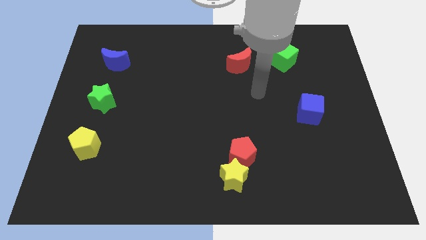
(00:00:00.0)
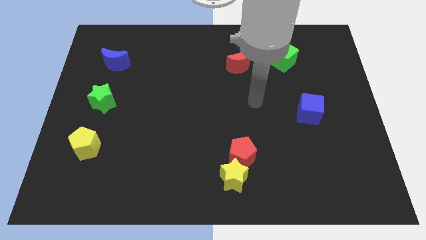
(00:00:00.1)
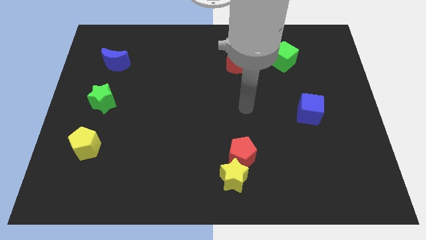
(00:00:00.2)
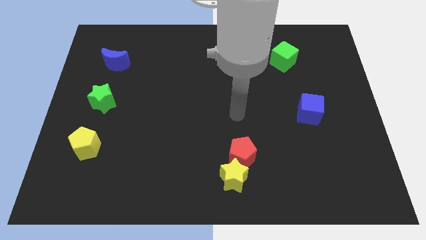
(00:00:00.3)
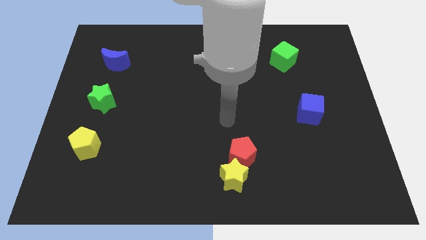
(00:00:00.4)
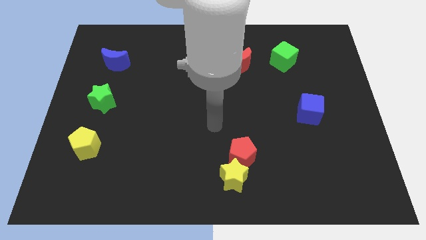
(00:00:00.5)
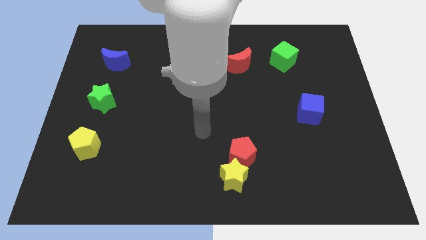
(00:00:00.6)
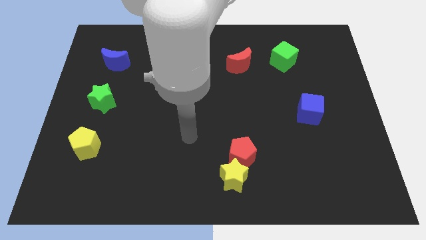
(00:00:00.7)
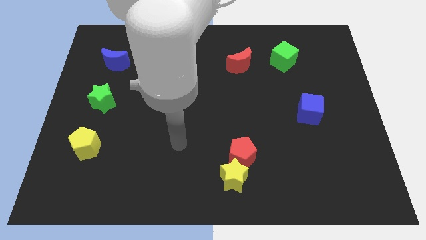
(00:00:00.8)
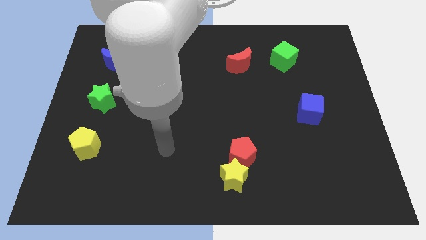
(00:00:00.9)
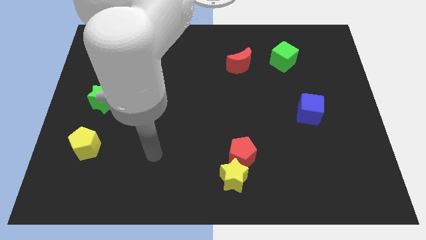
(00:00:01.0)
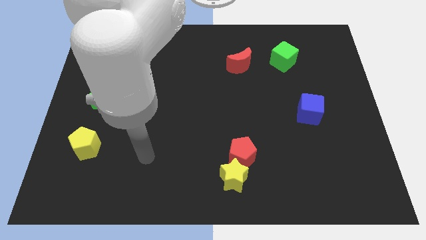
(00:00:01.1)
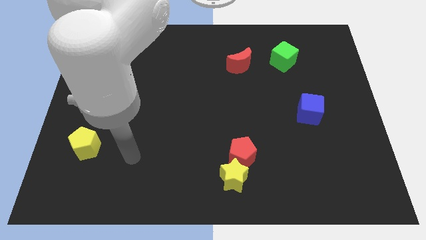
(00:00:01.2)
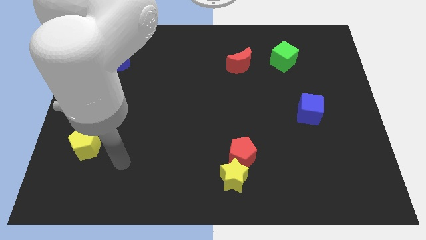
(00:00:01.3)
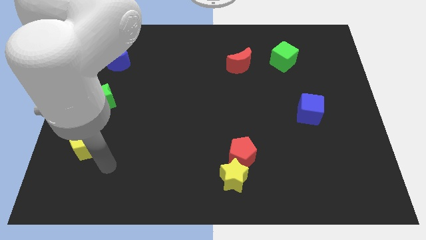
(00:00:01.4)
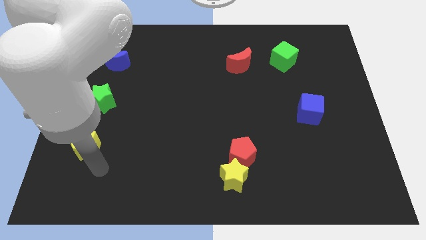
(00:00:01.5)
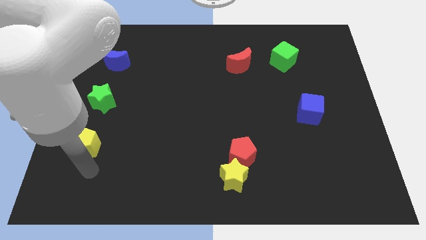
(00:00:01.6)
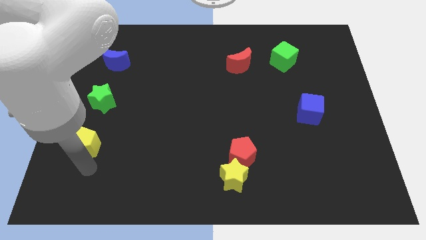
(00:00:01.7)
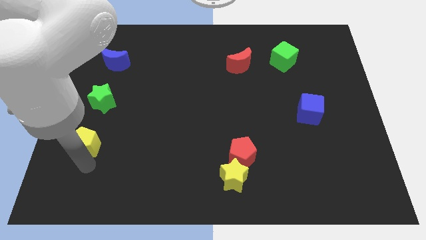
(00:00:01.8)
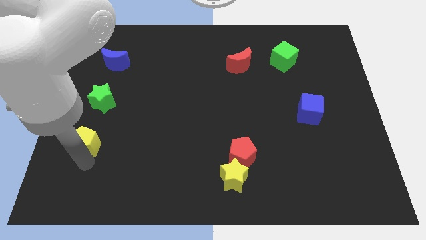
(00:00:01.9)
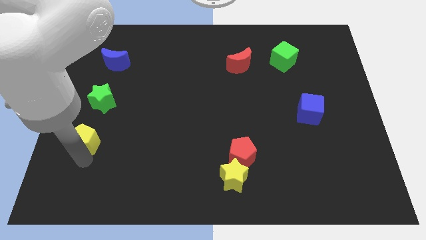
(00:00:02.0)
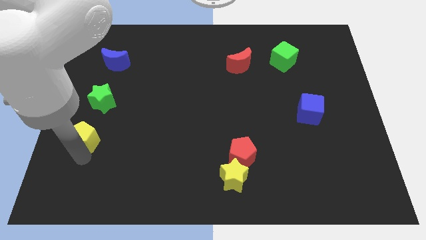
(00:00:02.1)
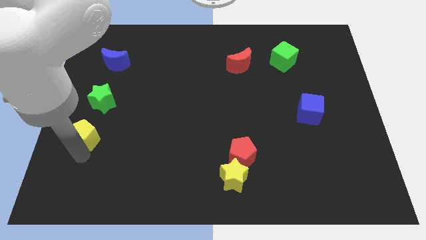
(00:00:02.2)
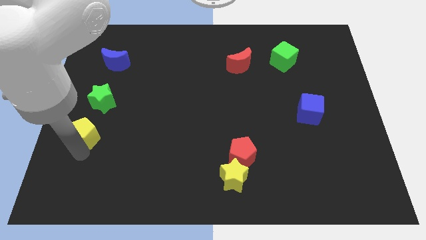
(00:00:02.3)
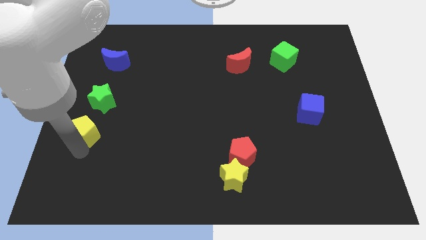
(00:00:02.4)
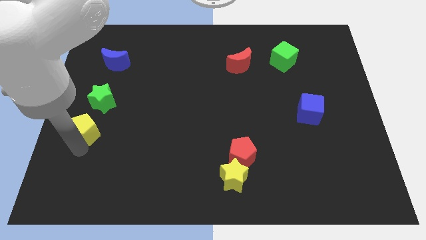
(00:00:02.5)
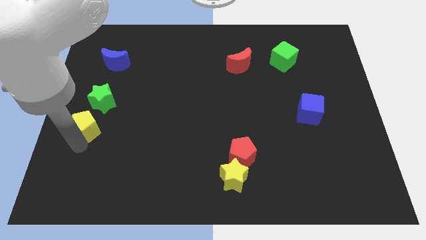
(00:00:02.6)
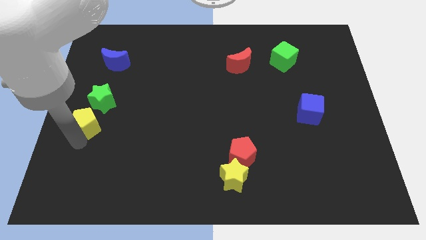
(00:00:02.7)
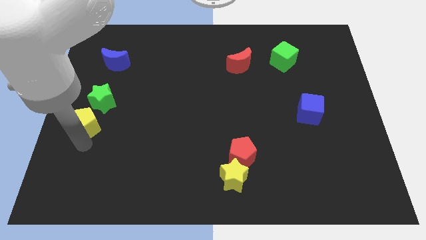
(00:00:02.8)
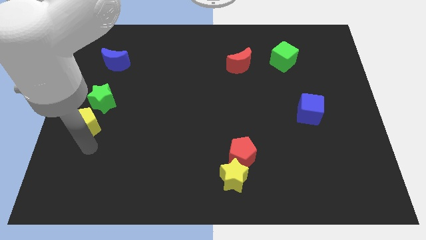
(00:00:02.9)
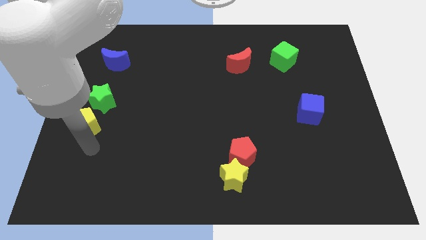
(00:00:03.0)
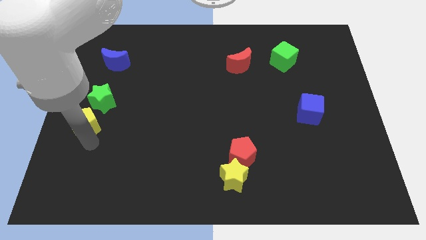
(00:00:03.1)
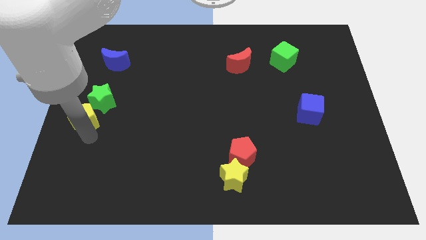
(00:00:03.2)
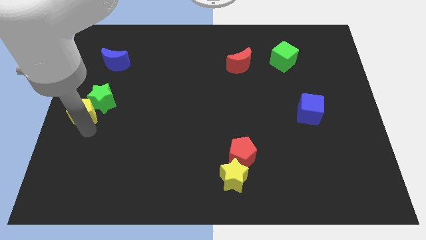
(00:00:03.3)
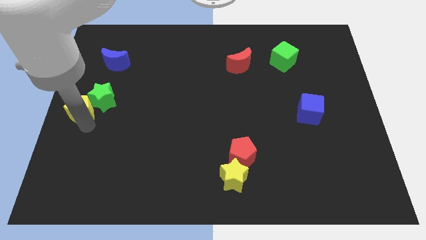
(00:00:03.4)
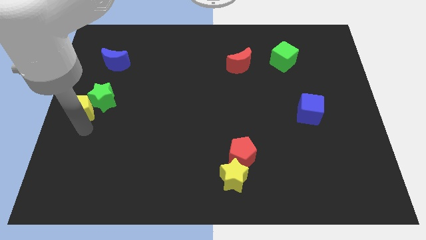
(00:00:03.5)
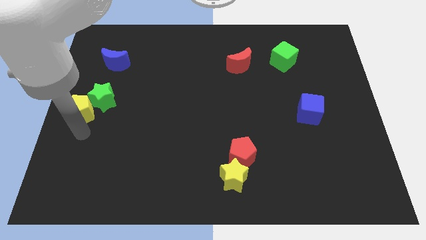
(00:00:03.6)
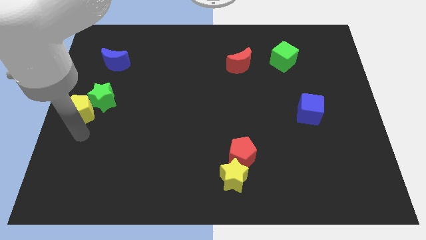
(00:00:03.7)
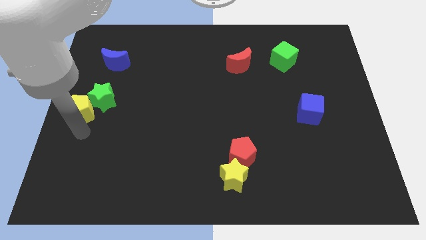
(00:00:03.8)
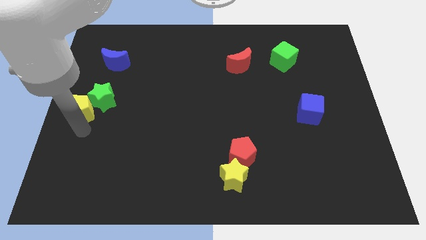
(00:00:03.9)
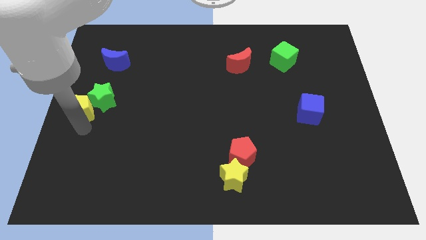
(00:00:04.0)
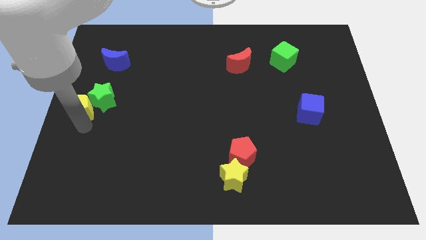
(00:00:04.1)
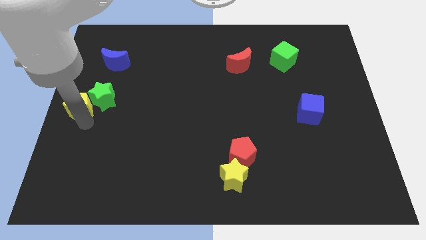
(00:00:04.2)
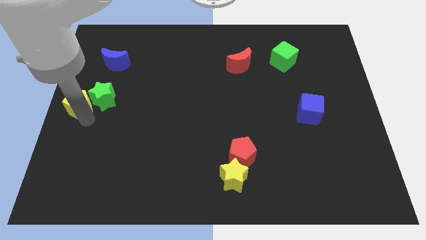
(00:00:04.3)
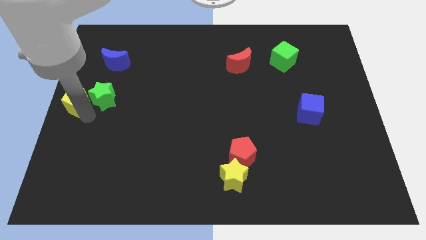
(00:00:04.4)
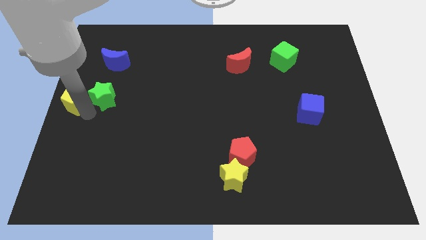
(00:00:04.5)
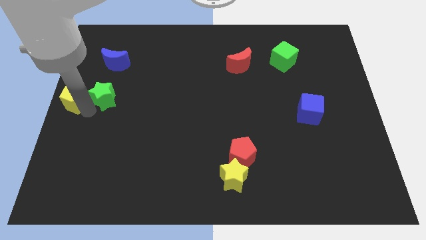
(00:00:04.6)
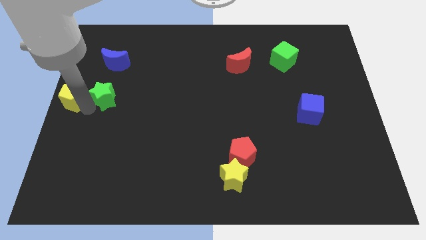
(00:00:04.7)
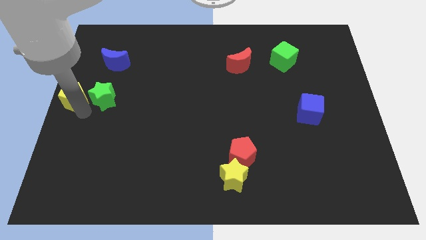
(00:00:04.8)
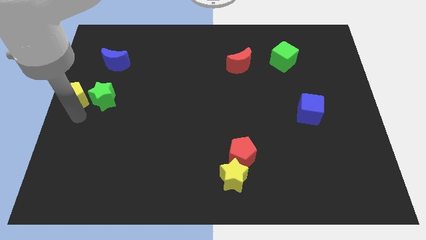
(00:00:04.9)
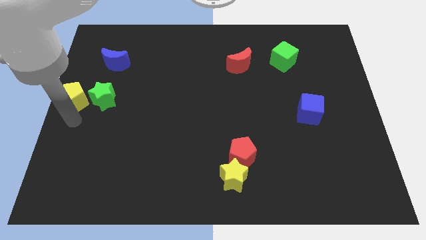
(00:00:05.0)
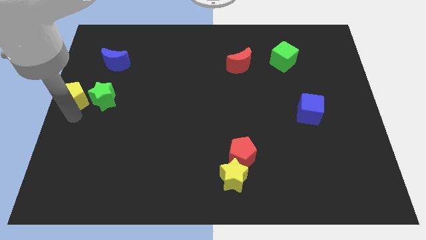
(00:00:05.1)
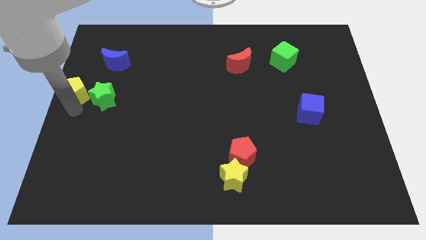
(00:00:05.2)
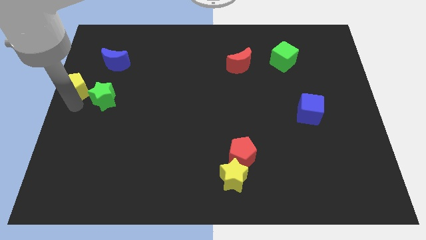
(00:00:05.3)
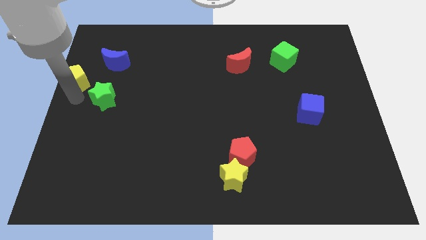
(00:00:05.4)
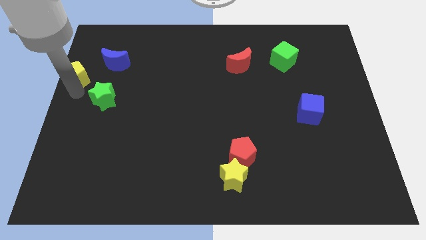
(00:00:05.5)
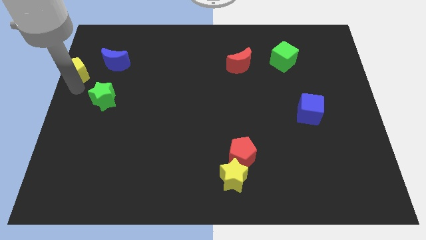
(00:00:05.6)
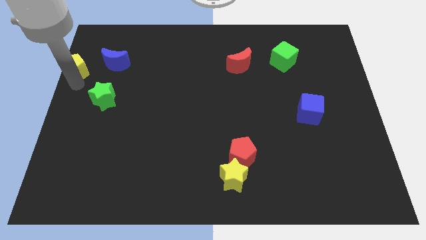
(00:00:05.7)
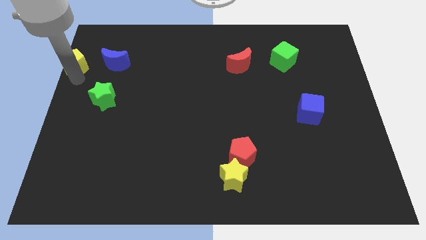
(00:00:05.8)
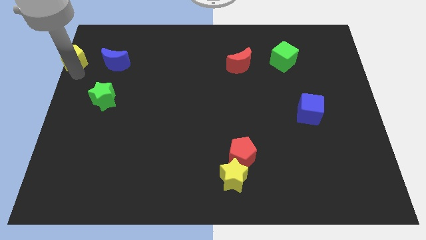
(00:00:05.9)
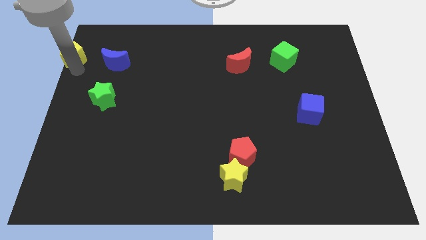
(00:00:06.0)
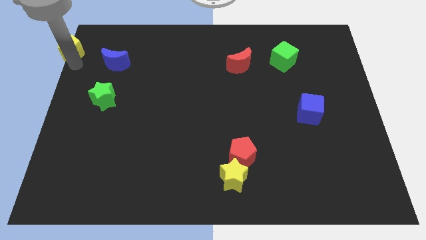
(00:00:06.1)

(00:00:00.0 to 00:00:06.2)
push the yellow pentagon to the upper left corner

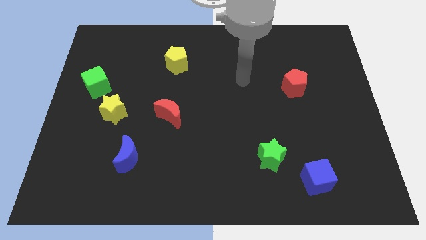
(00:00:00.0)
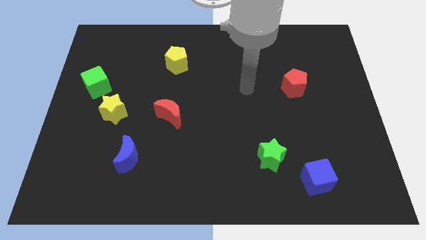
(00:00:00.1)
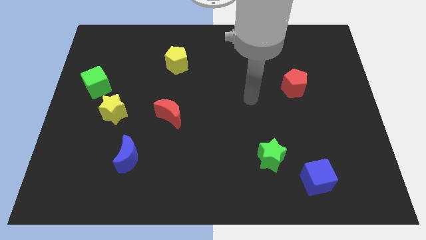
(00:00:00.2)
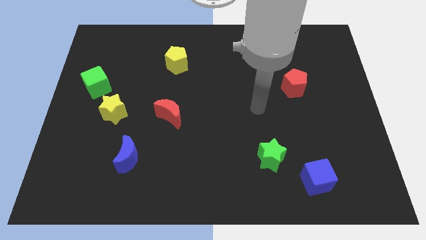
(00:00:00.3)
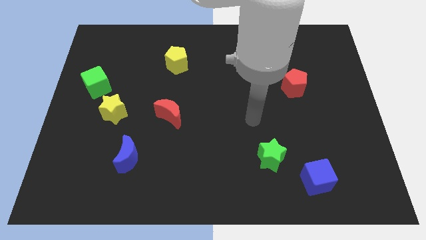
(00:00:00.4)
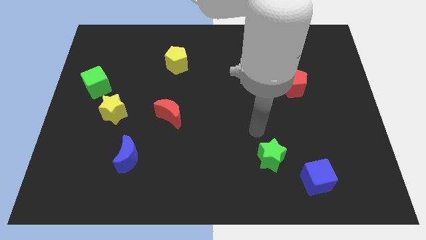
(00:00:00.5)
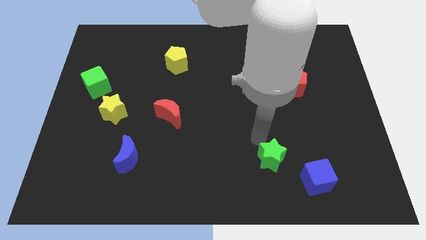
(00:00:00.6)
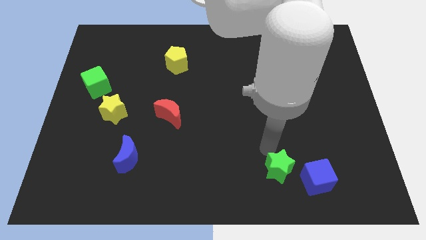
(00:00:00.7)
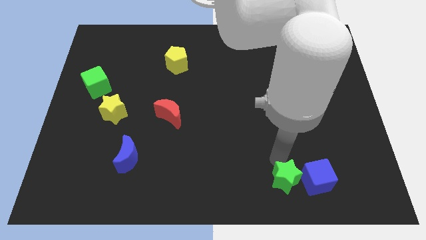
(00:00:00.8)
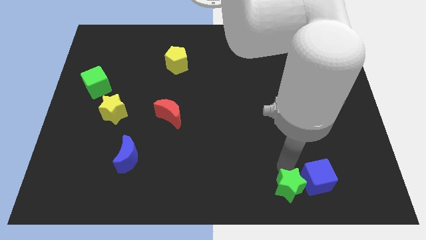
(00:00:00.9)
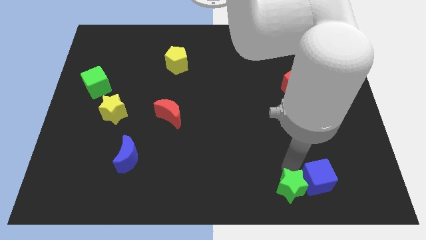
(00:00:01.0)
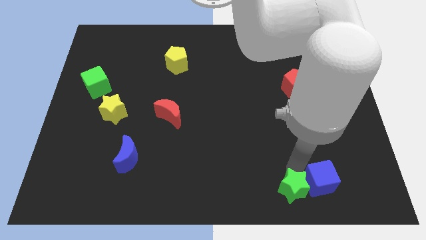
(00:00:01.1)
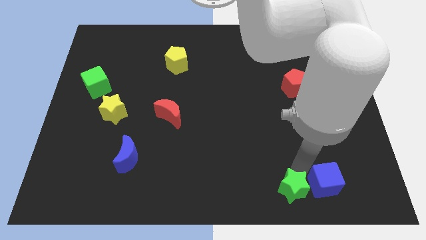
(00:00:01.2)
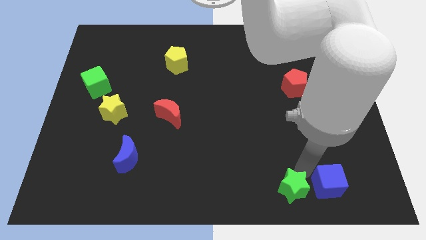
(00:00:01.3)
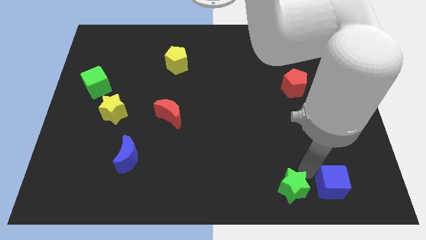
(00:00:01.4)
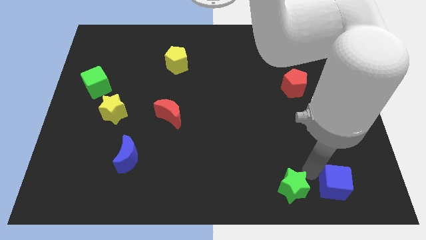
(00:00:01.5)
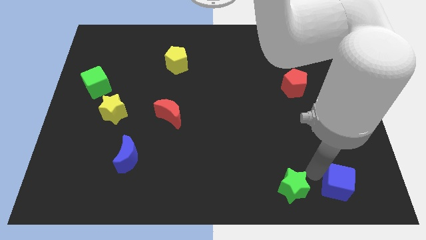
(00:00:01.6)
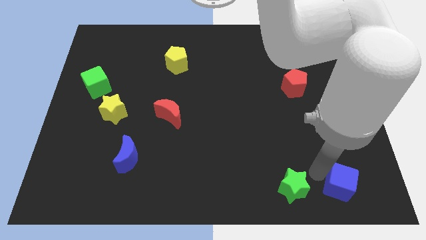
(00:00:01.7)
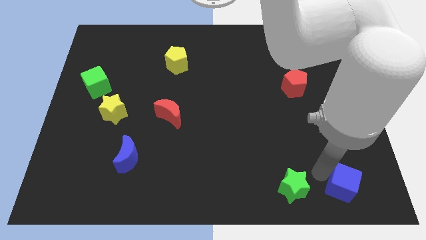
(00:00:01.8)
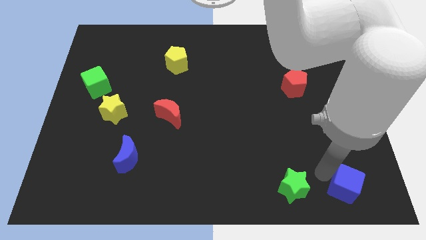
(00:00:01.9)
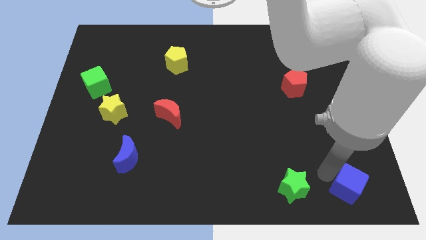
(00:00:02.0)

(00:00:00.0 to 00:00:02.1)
move the blue cube to the bottom right
